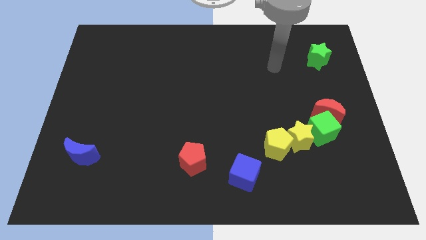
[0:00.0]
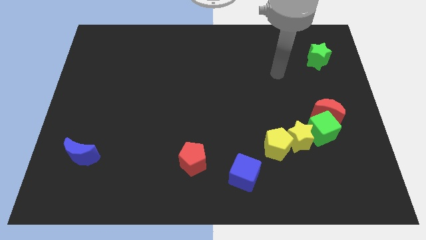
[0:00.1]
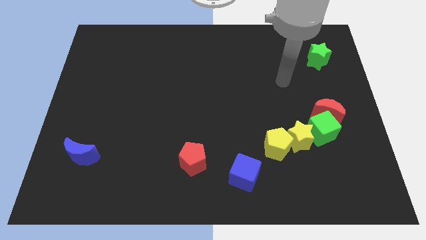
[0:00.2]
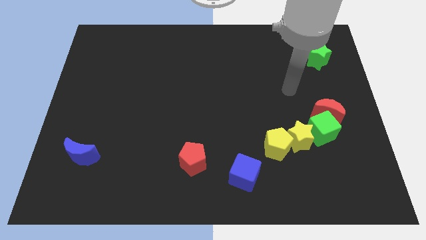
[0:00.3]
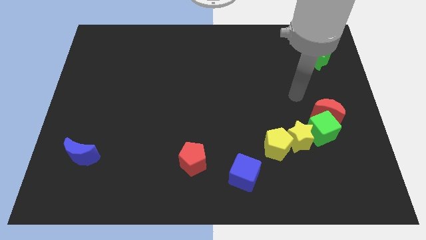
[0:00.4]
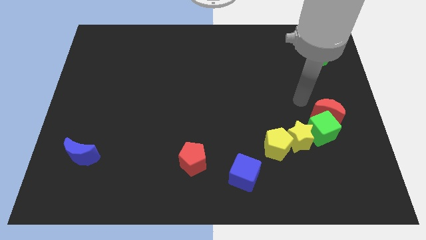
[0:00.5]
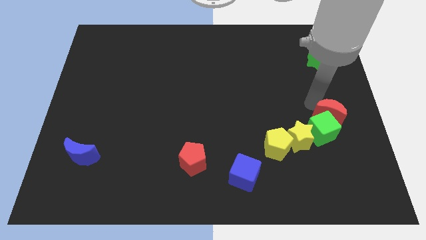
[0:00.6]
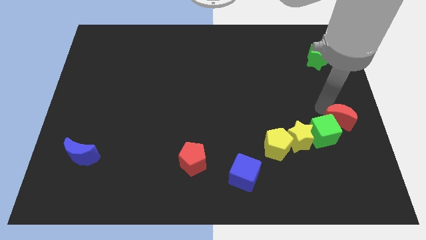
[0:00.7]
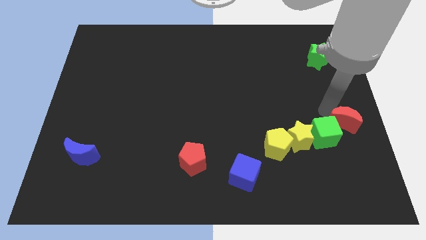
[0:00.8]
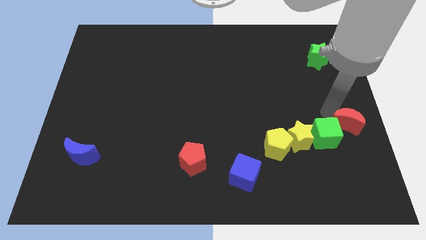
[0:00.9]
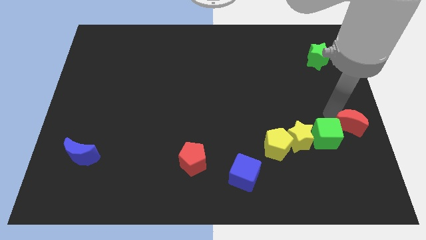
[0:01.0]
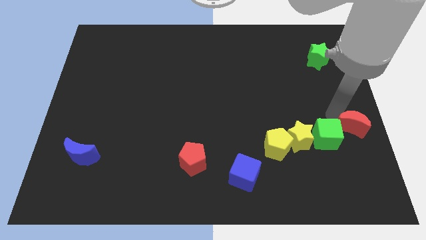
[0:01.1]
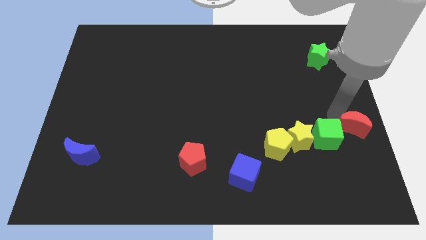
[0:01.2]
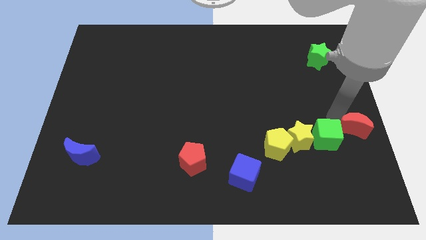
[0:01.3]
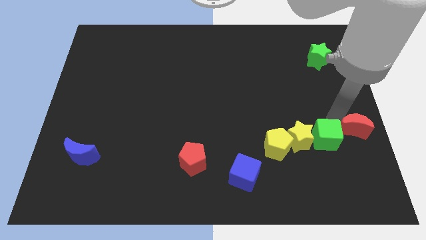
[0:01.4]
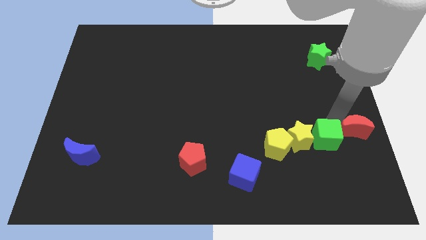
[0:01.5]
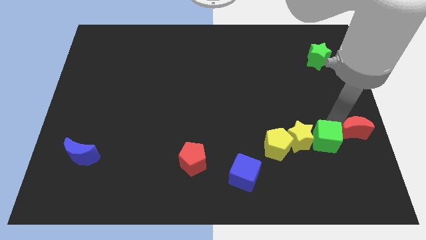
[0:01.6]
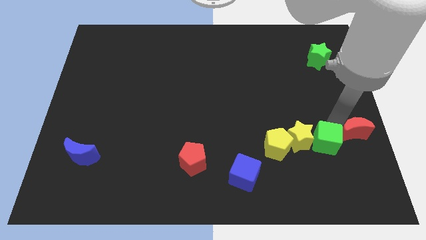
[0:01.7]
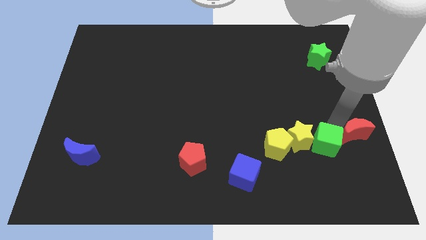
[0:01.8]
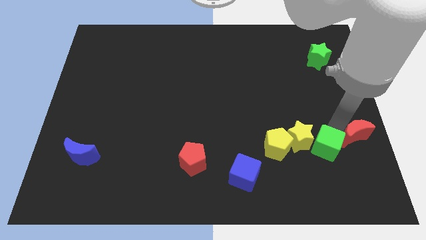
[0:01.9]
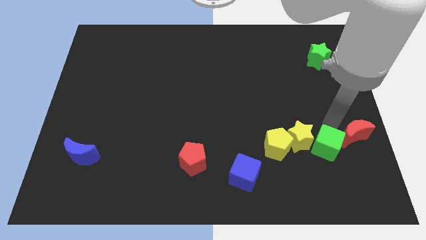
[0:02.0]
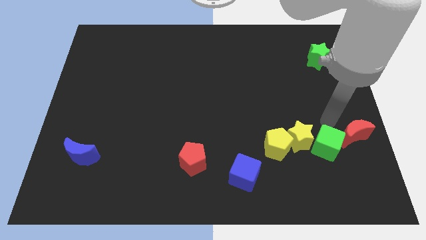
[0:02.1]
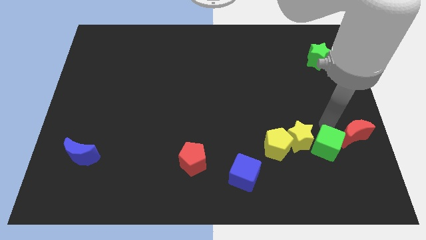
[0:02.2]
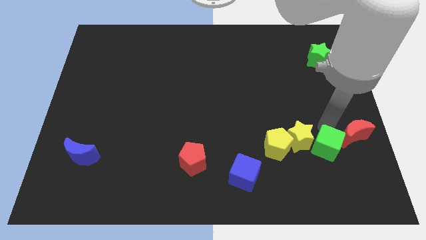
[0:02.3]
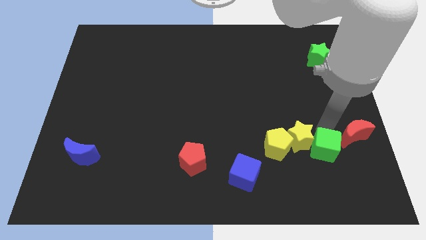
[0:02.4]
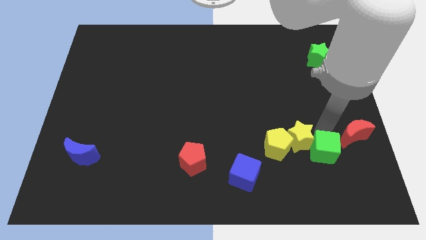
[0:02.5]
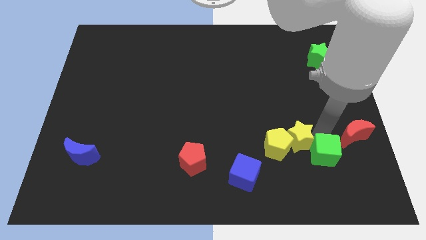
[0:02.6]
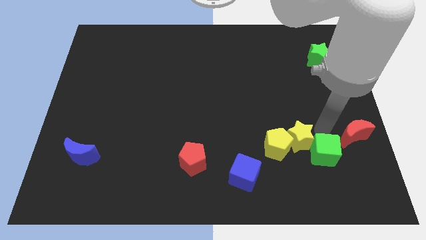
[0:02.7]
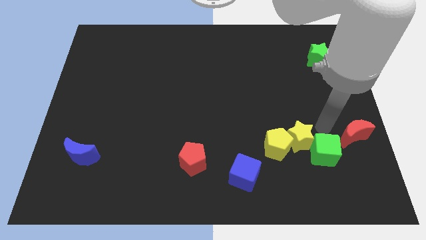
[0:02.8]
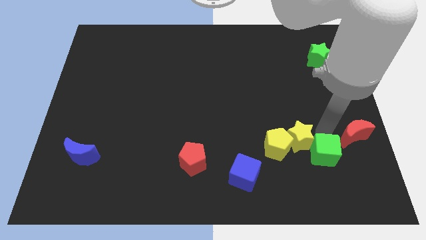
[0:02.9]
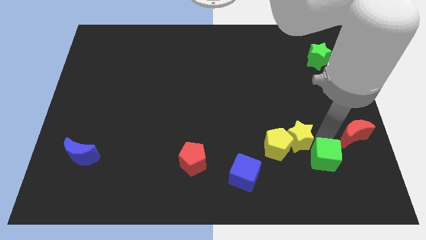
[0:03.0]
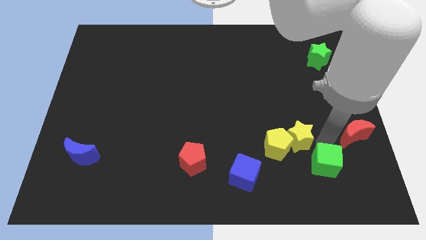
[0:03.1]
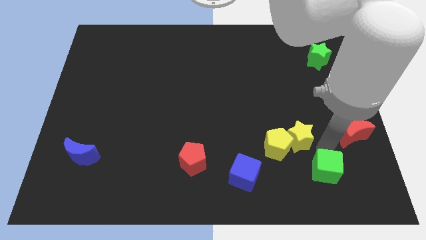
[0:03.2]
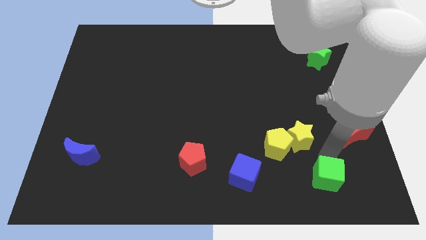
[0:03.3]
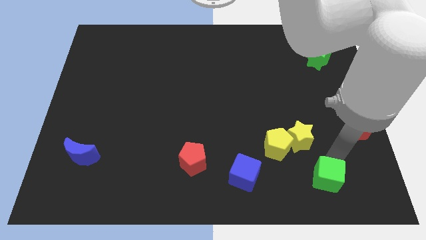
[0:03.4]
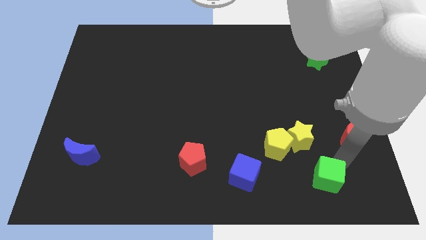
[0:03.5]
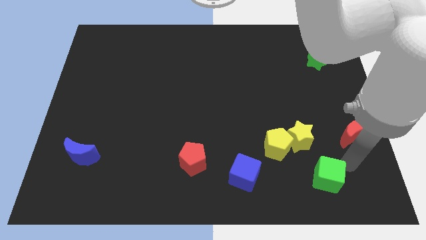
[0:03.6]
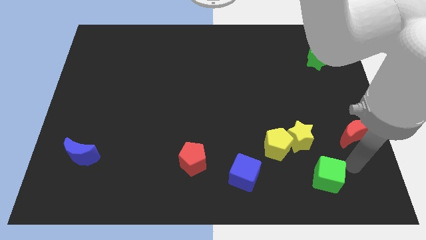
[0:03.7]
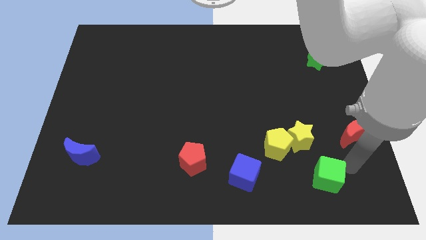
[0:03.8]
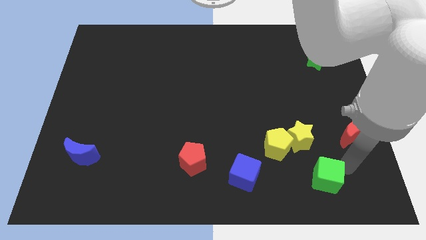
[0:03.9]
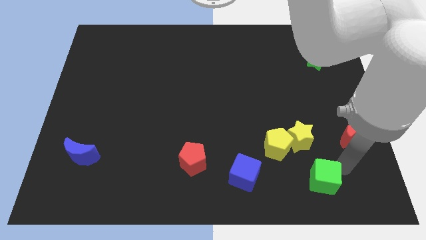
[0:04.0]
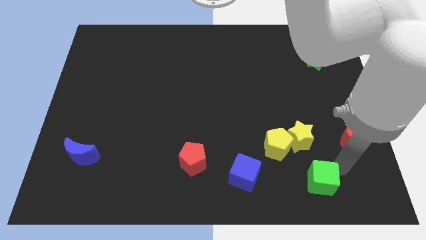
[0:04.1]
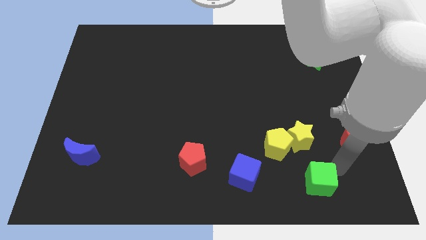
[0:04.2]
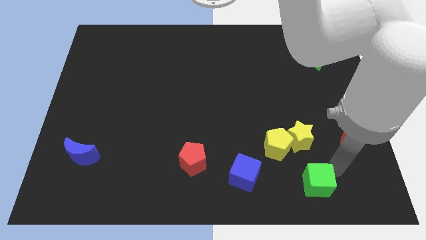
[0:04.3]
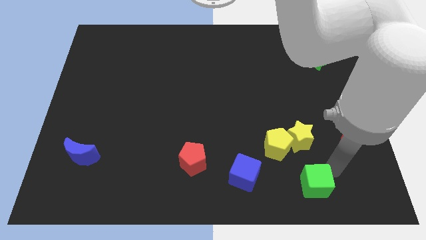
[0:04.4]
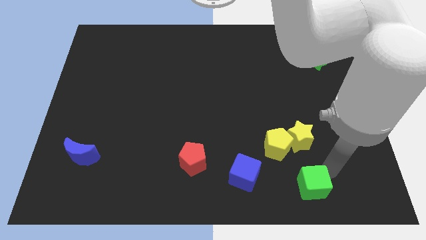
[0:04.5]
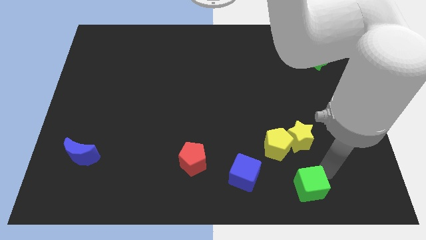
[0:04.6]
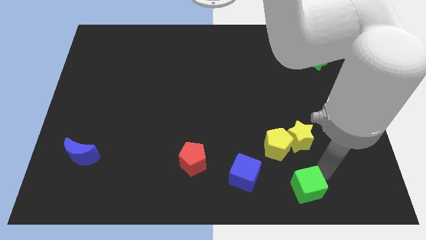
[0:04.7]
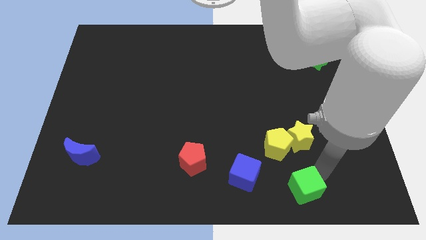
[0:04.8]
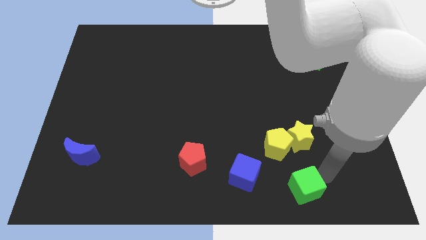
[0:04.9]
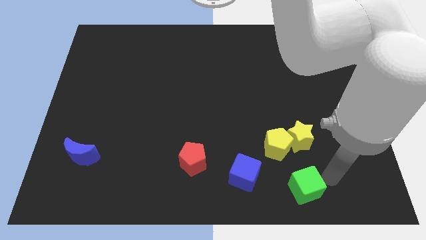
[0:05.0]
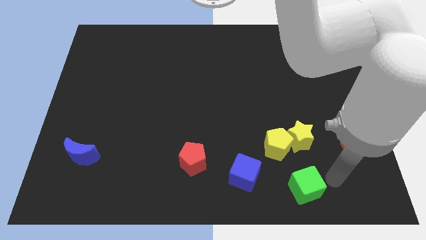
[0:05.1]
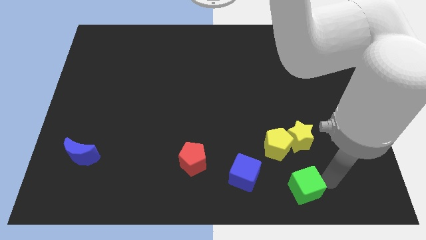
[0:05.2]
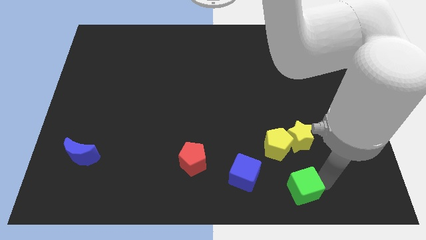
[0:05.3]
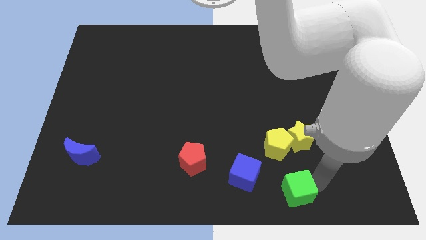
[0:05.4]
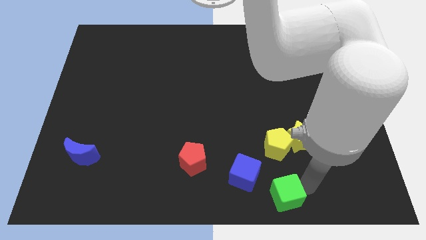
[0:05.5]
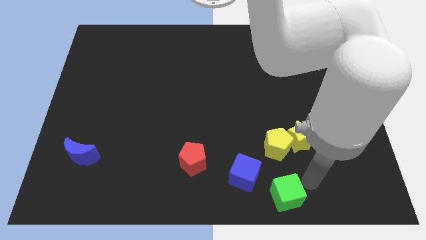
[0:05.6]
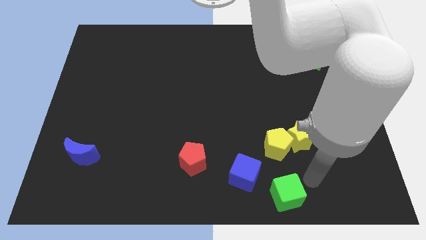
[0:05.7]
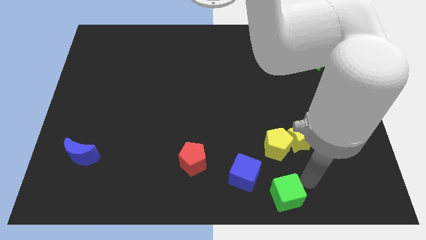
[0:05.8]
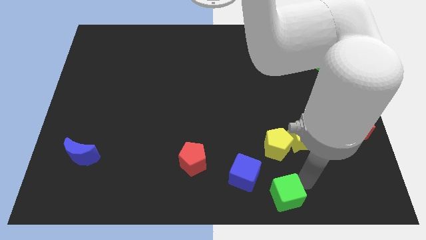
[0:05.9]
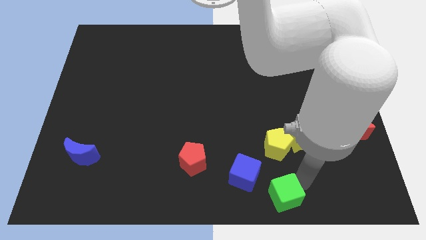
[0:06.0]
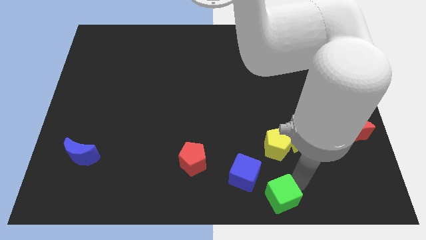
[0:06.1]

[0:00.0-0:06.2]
push the green cube to the bottom
